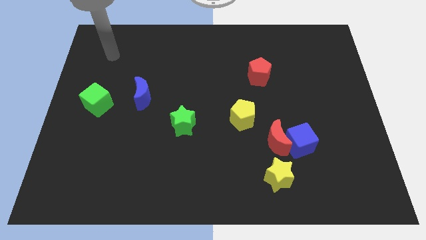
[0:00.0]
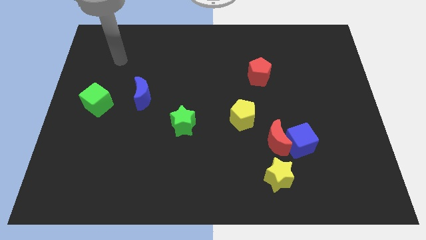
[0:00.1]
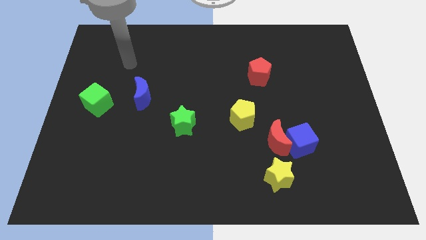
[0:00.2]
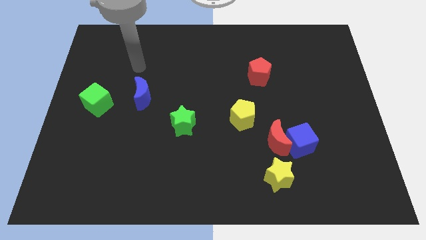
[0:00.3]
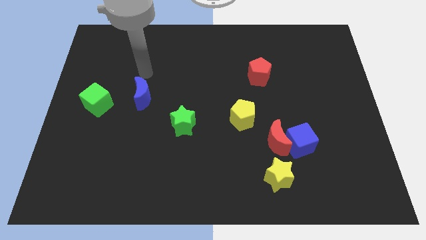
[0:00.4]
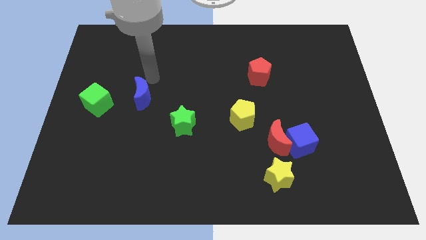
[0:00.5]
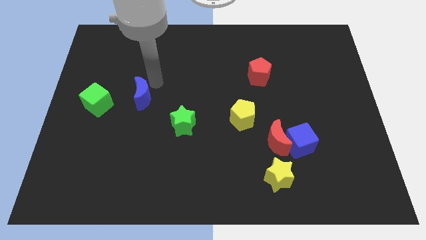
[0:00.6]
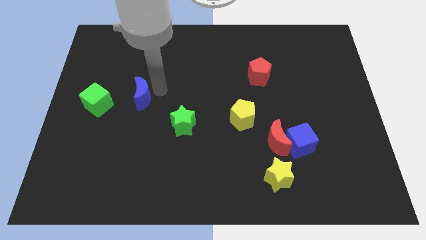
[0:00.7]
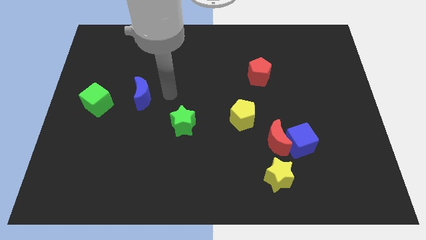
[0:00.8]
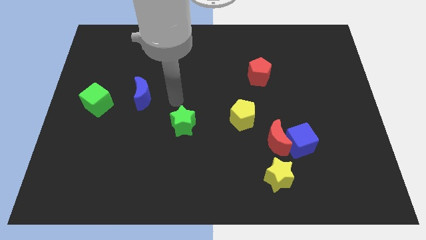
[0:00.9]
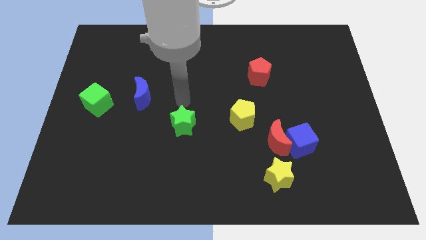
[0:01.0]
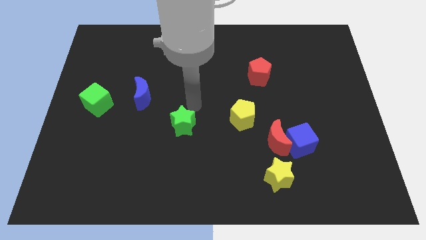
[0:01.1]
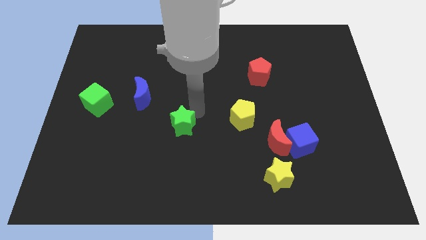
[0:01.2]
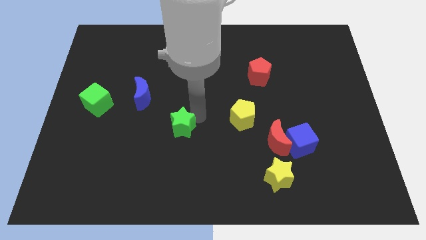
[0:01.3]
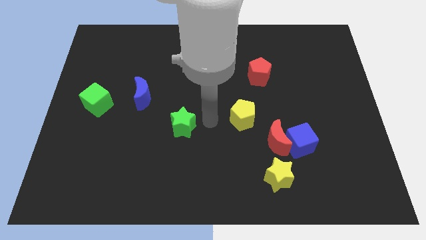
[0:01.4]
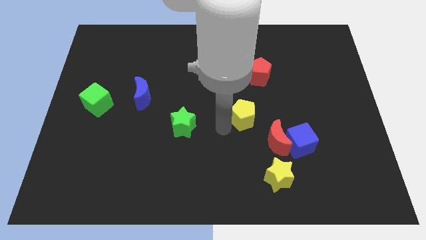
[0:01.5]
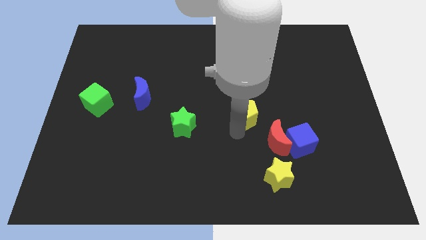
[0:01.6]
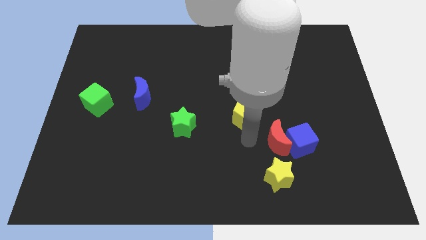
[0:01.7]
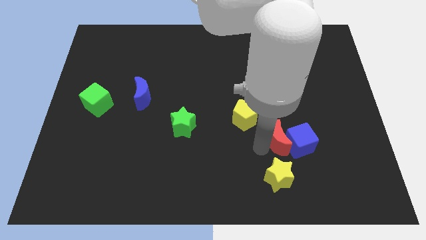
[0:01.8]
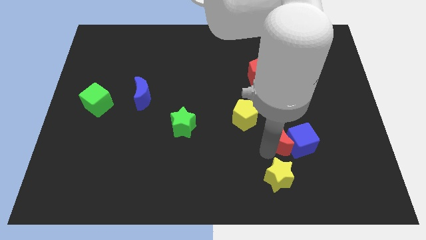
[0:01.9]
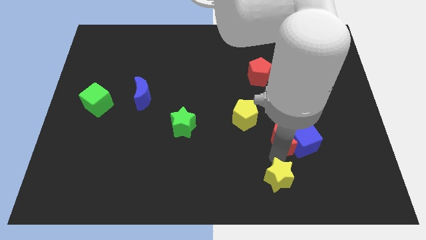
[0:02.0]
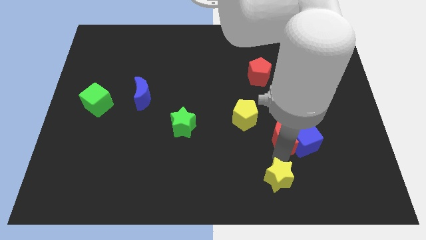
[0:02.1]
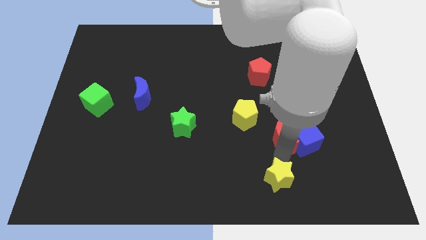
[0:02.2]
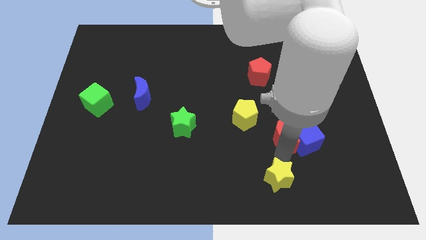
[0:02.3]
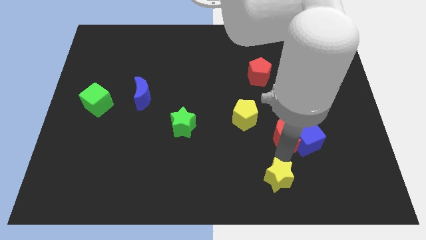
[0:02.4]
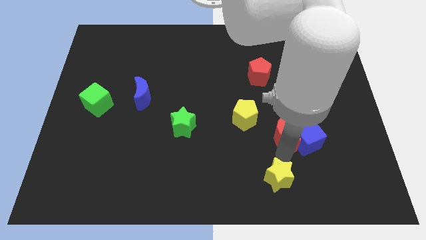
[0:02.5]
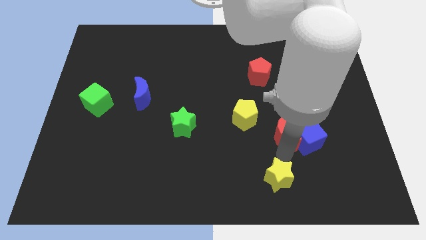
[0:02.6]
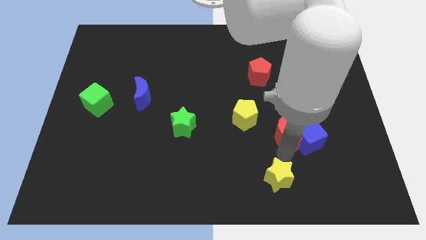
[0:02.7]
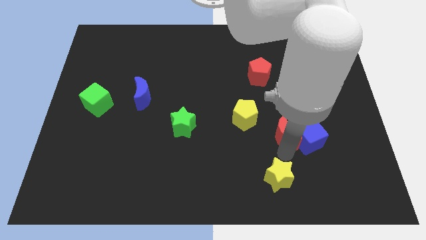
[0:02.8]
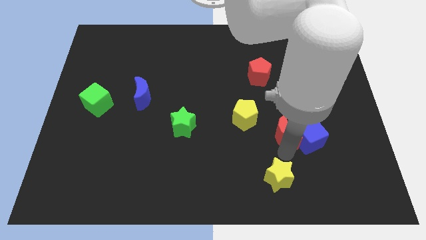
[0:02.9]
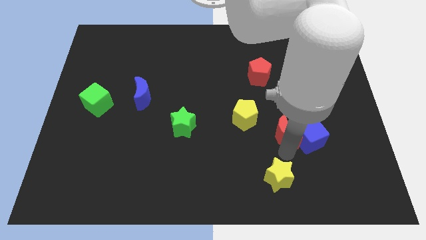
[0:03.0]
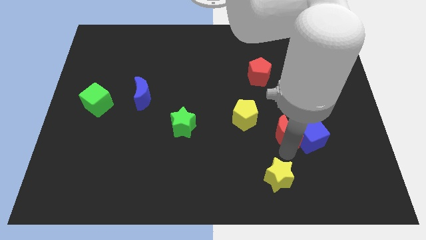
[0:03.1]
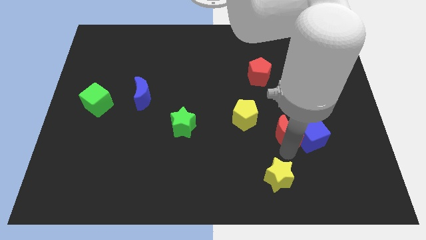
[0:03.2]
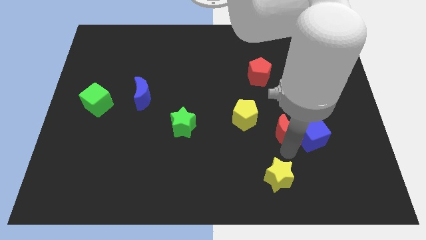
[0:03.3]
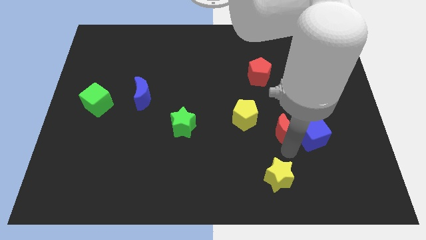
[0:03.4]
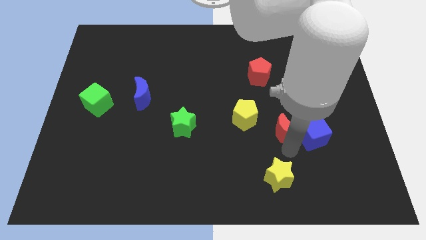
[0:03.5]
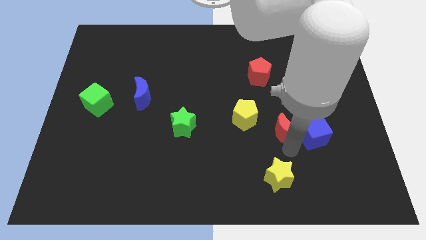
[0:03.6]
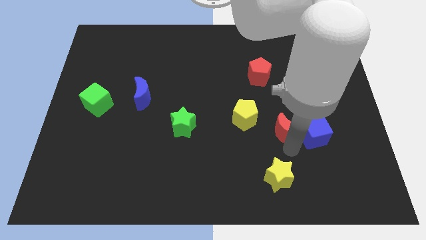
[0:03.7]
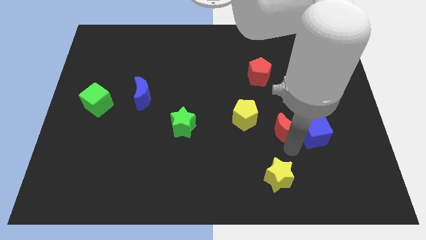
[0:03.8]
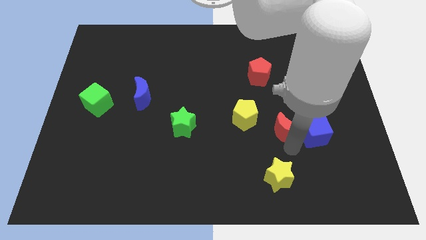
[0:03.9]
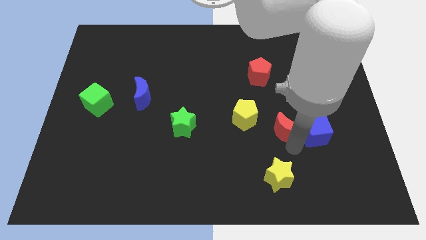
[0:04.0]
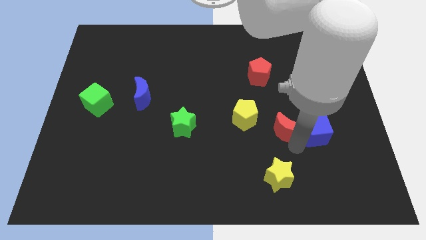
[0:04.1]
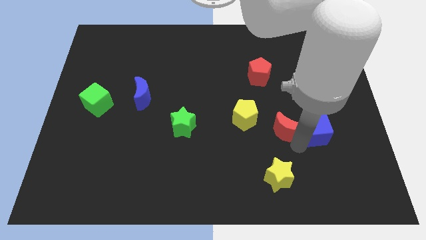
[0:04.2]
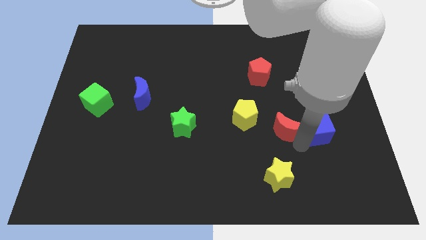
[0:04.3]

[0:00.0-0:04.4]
move the blue cube away from the red moon and yellow star

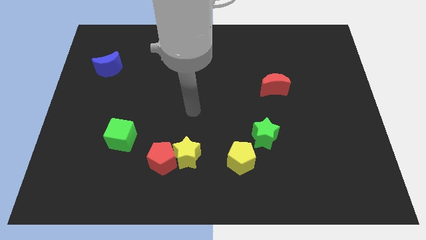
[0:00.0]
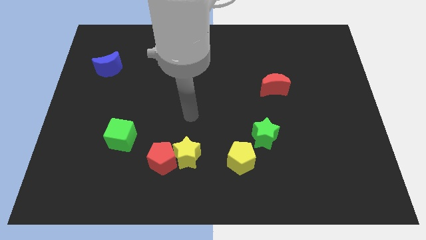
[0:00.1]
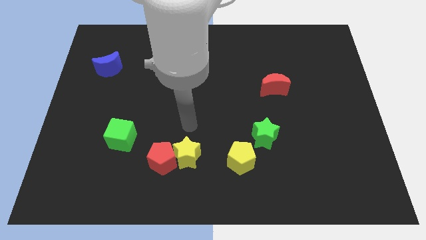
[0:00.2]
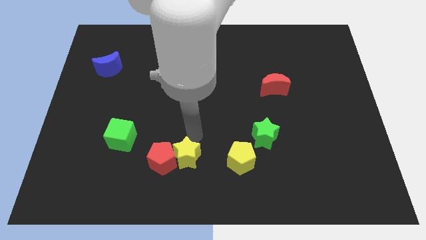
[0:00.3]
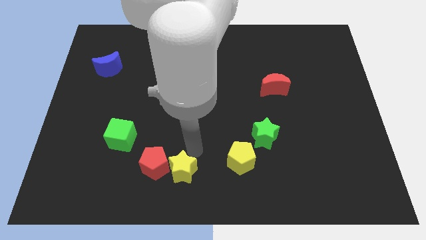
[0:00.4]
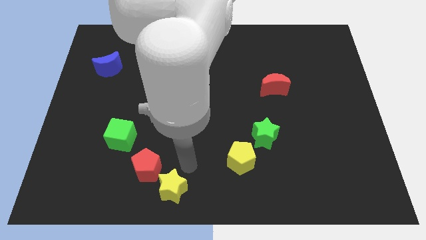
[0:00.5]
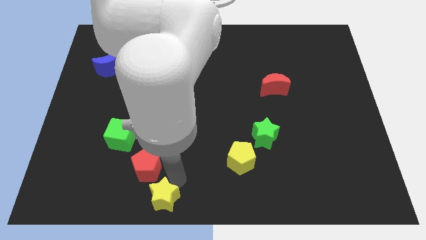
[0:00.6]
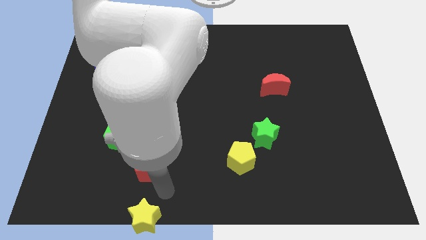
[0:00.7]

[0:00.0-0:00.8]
move the red pentagon away from the yellow star

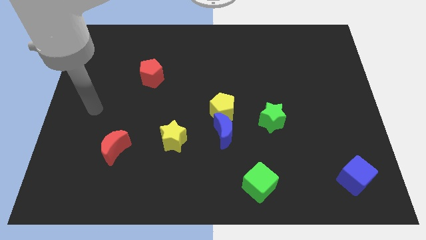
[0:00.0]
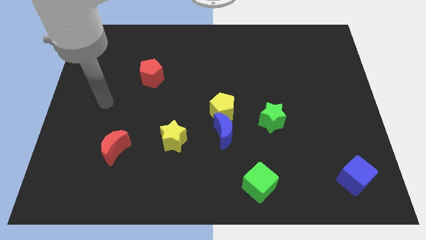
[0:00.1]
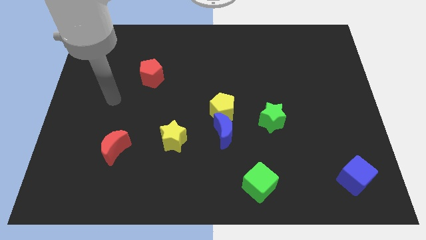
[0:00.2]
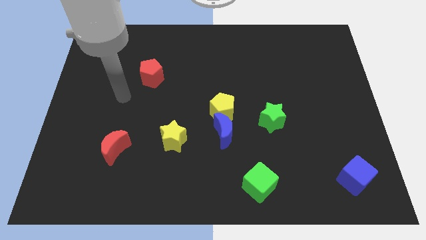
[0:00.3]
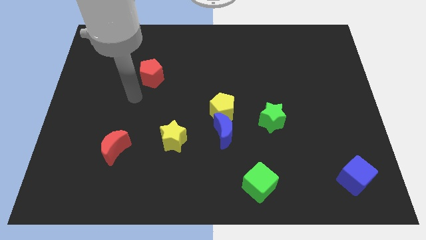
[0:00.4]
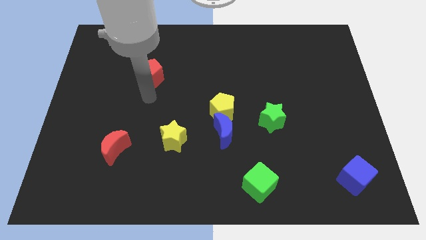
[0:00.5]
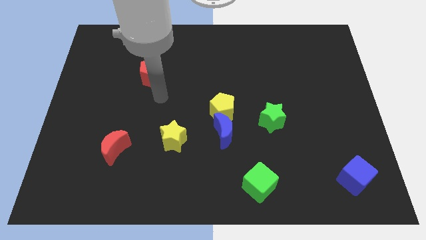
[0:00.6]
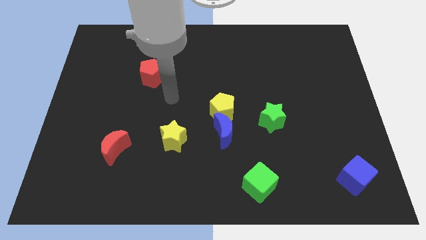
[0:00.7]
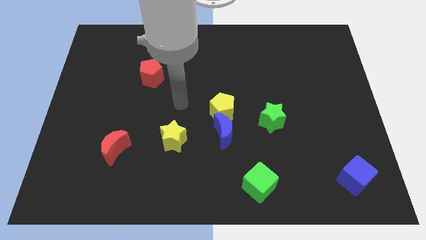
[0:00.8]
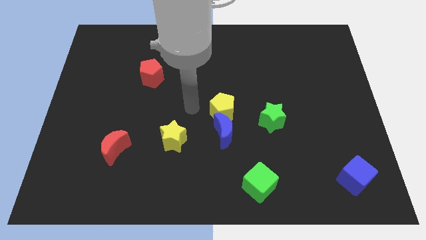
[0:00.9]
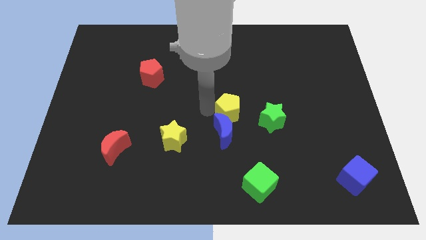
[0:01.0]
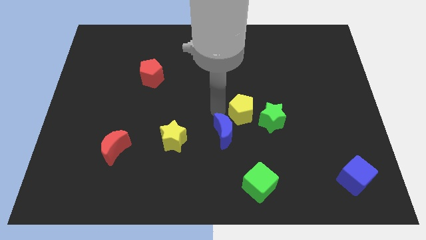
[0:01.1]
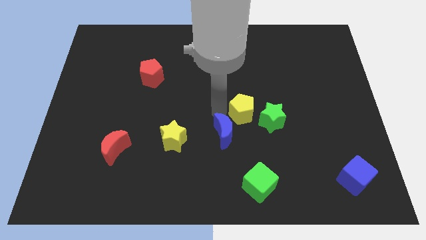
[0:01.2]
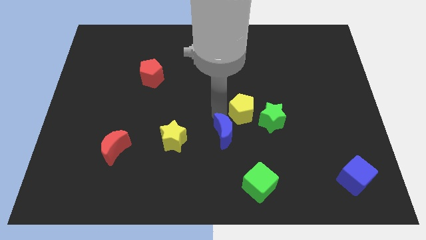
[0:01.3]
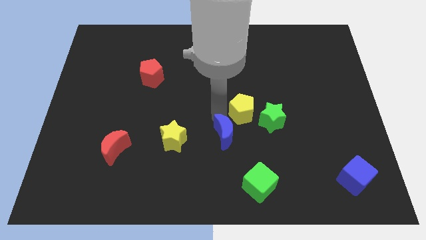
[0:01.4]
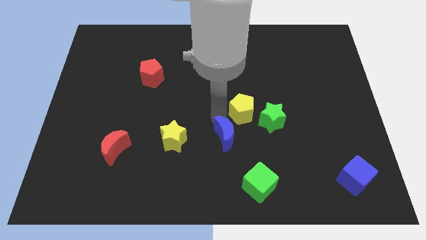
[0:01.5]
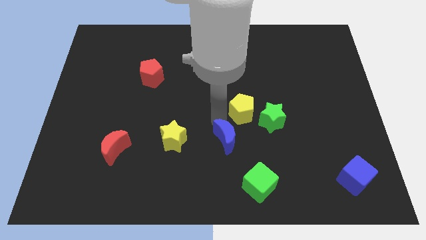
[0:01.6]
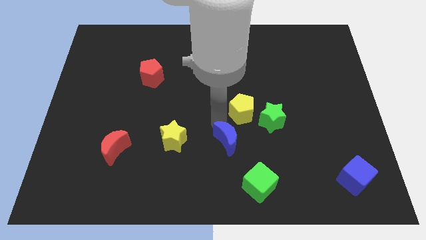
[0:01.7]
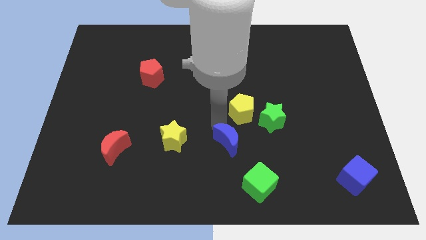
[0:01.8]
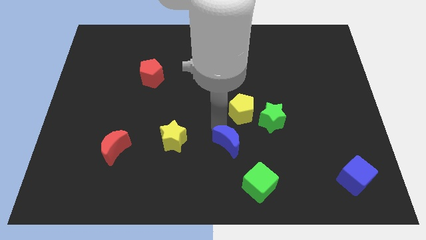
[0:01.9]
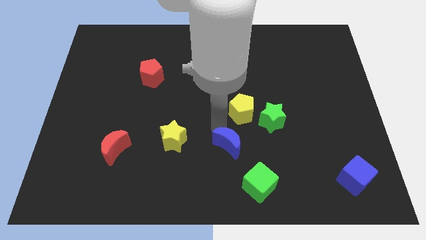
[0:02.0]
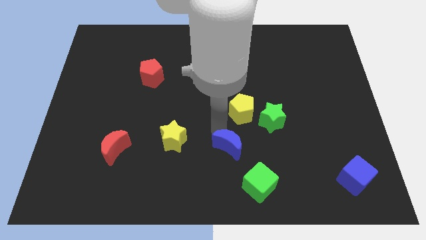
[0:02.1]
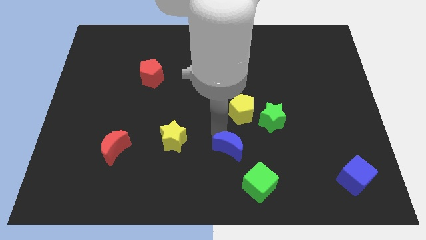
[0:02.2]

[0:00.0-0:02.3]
separate the blue moon from the yellow pentagon

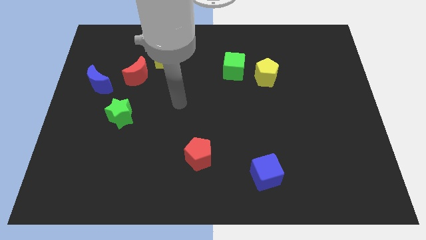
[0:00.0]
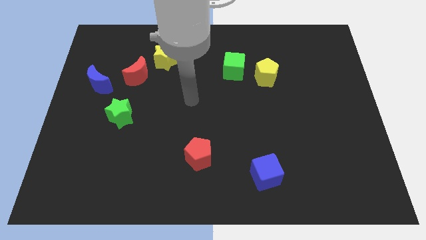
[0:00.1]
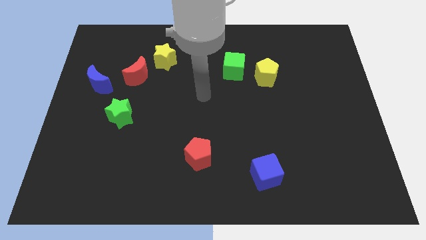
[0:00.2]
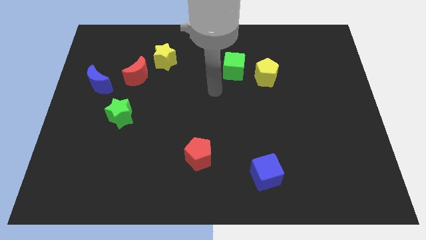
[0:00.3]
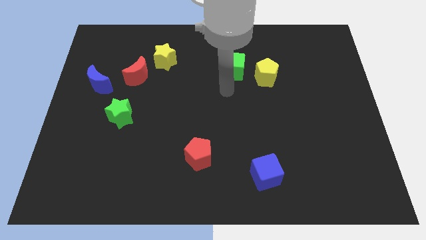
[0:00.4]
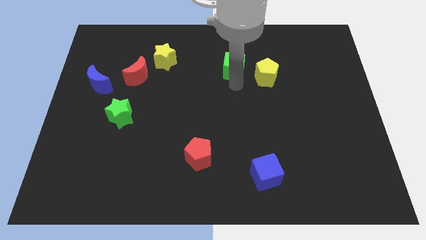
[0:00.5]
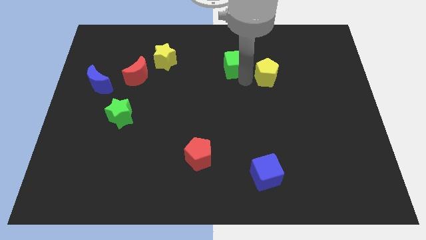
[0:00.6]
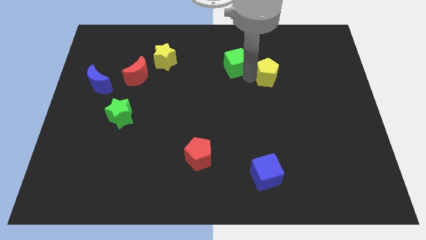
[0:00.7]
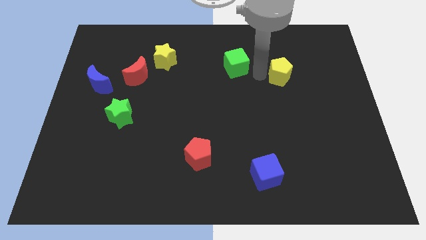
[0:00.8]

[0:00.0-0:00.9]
move the green cube away from the yellow pentagon

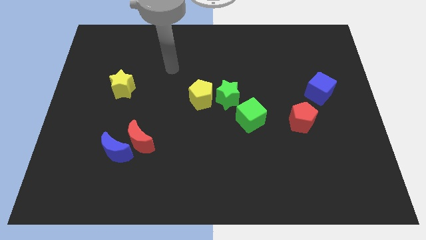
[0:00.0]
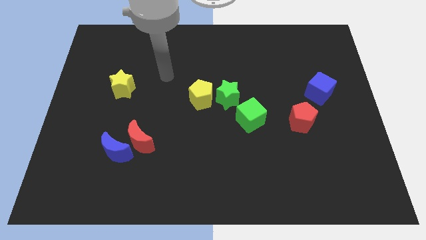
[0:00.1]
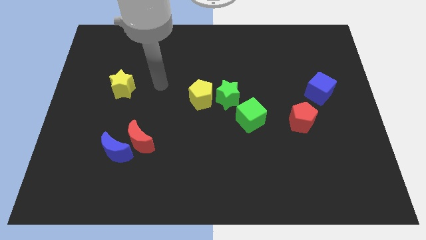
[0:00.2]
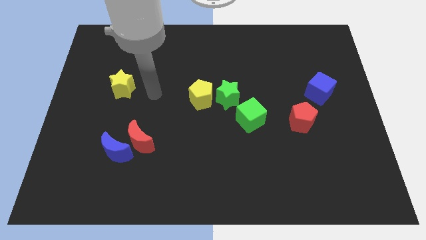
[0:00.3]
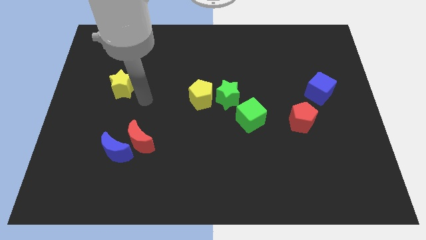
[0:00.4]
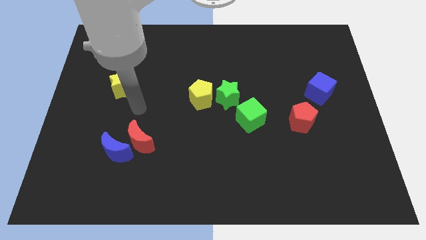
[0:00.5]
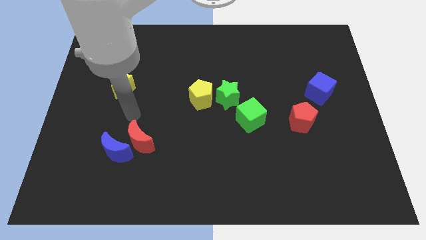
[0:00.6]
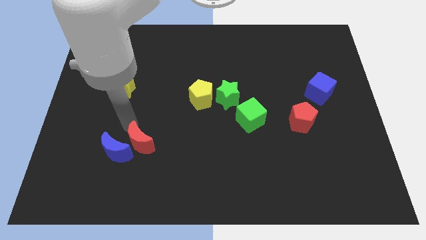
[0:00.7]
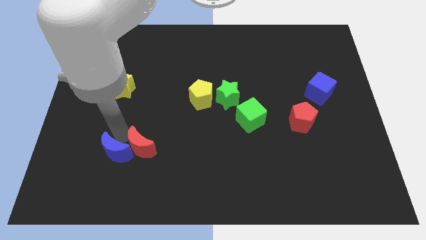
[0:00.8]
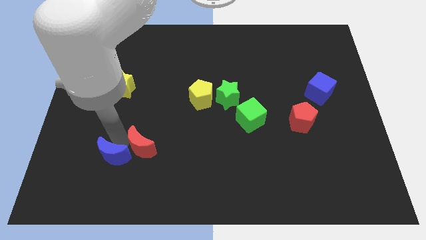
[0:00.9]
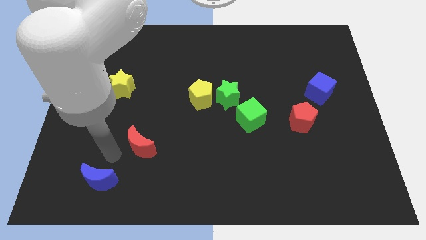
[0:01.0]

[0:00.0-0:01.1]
move the red moon away from the blue moon
